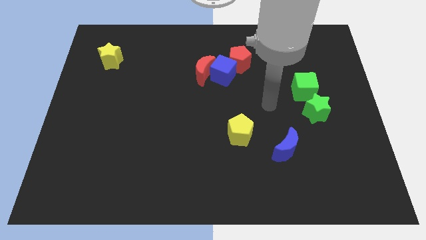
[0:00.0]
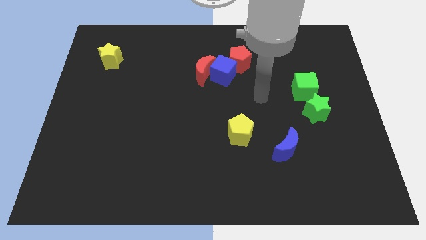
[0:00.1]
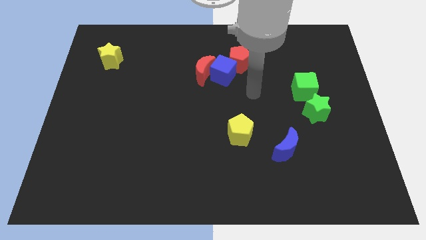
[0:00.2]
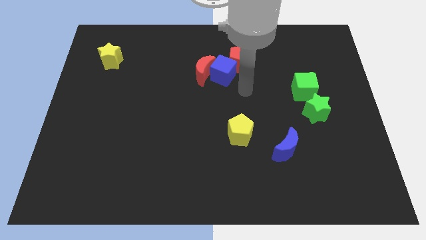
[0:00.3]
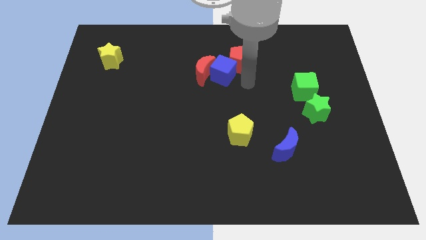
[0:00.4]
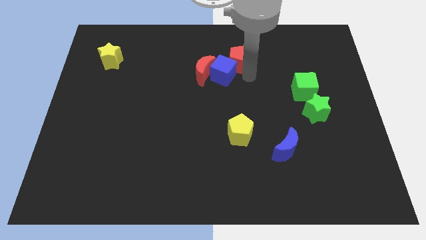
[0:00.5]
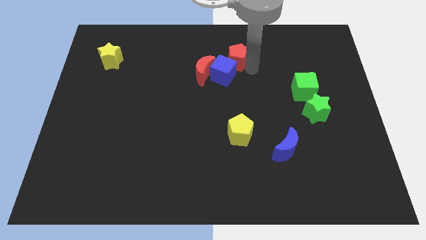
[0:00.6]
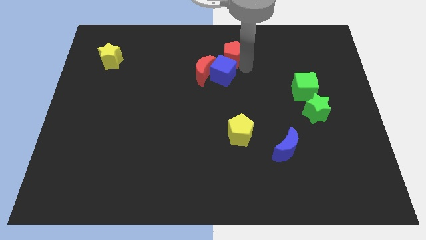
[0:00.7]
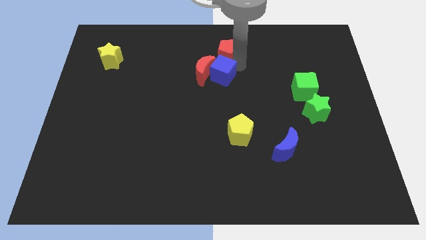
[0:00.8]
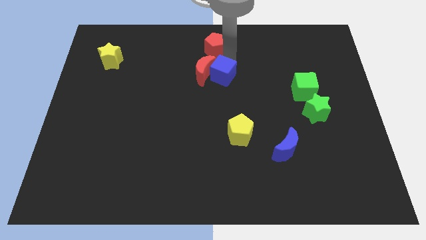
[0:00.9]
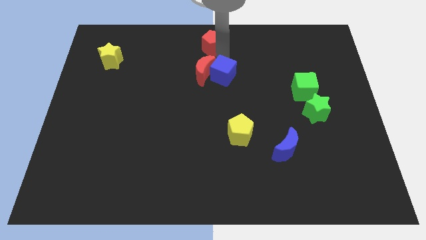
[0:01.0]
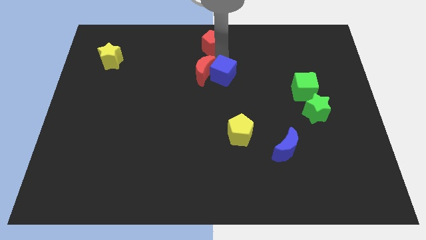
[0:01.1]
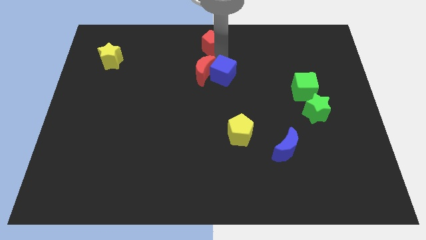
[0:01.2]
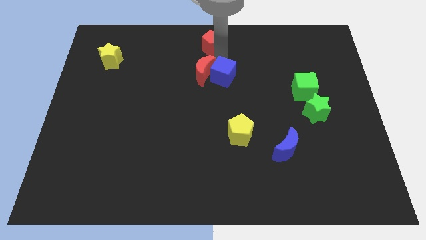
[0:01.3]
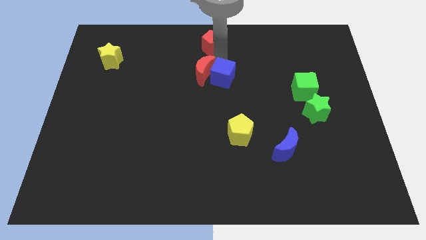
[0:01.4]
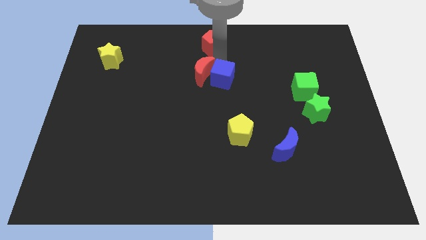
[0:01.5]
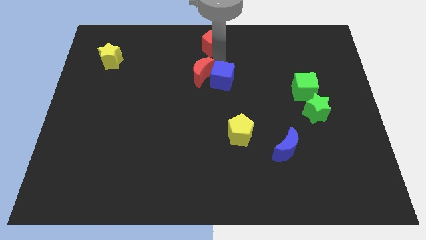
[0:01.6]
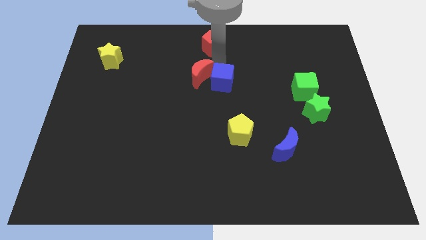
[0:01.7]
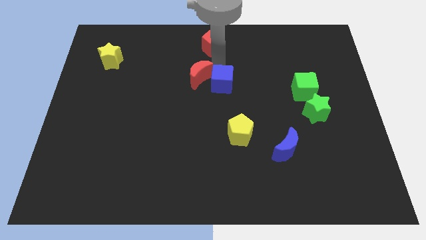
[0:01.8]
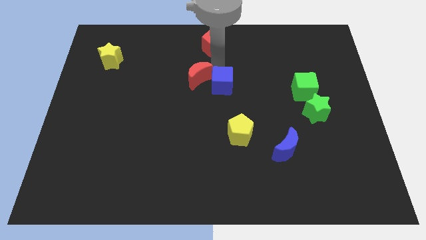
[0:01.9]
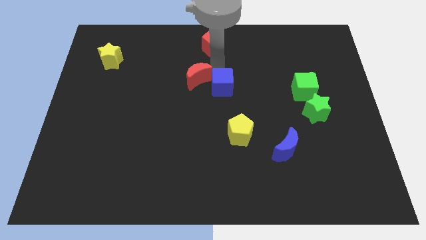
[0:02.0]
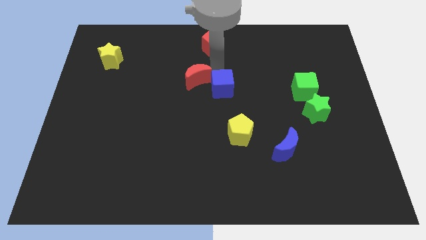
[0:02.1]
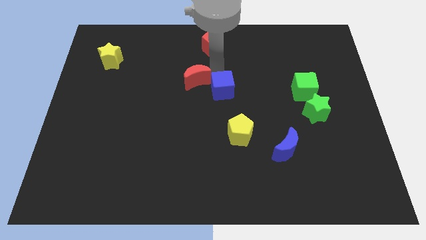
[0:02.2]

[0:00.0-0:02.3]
move the blue cube away from the red moon and red pentagon

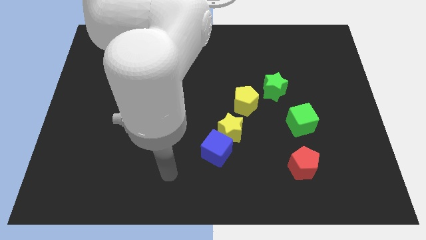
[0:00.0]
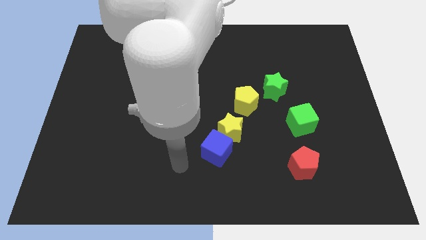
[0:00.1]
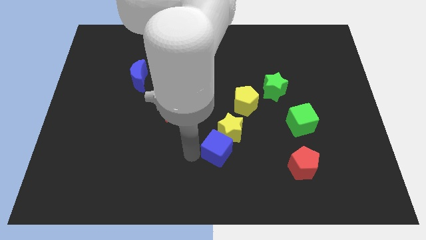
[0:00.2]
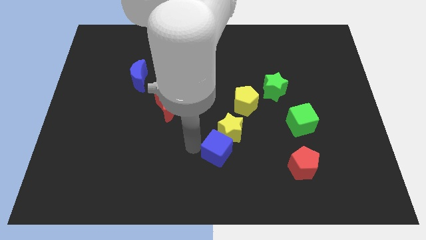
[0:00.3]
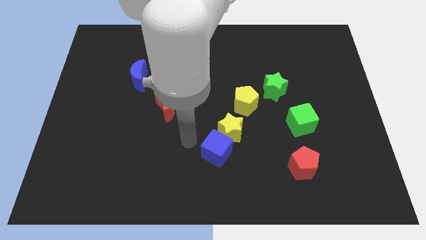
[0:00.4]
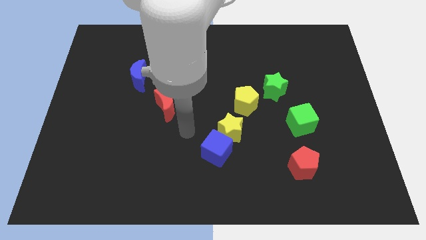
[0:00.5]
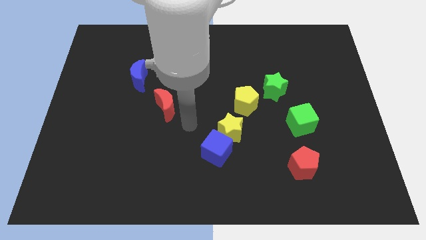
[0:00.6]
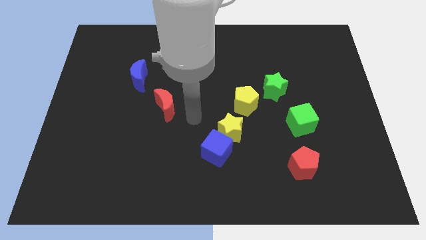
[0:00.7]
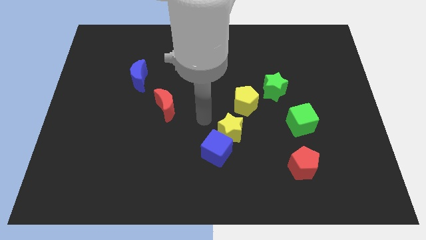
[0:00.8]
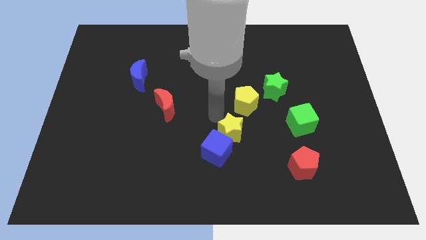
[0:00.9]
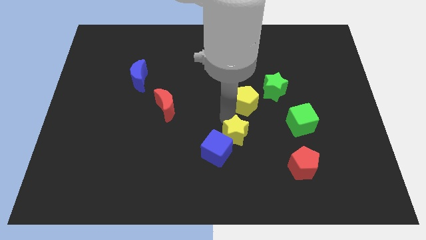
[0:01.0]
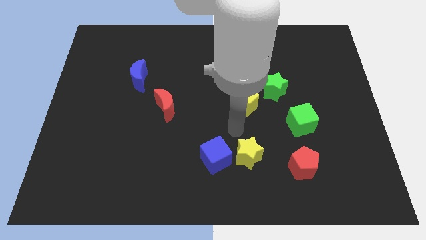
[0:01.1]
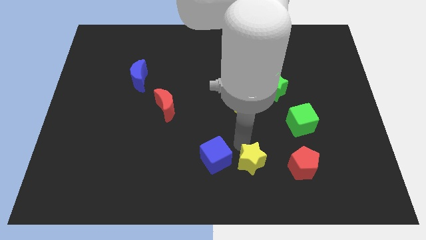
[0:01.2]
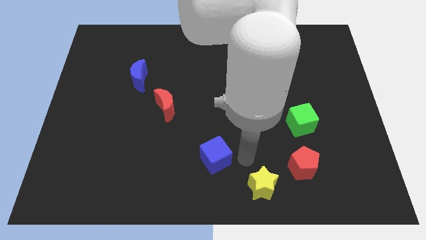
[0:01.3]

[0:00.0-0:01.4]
move the blue cube away from the yellow star

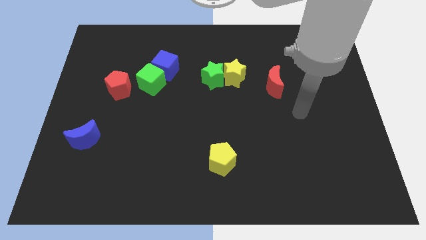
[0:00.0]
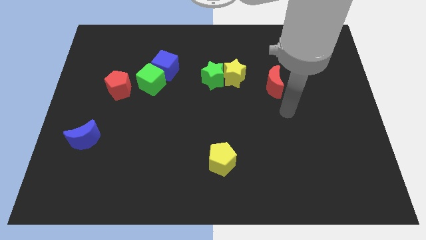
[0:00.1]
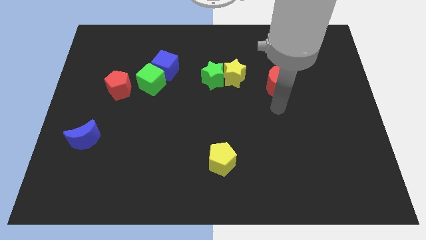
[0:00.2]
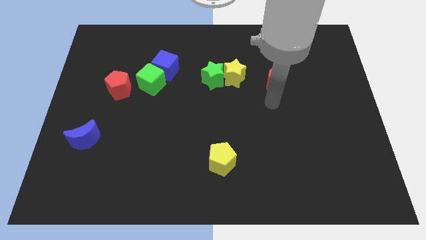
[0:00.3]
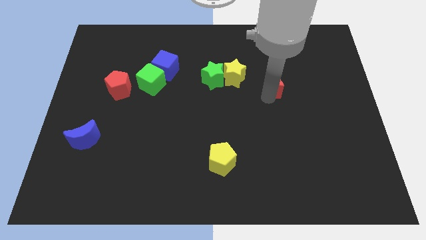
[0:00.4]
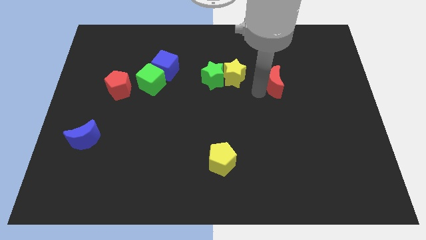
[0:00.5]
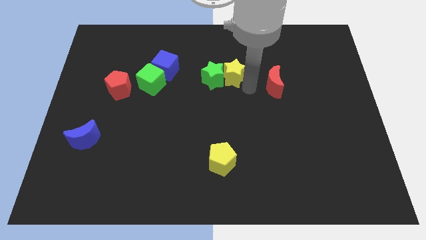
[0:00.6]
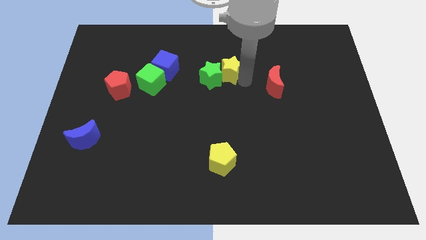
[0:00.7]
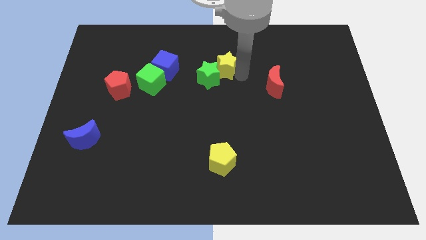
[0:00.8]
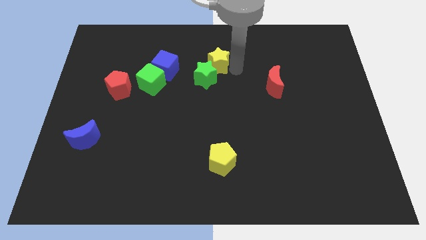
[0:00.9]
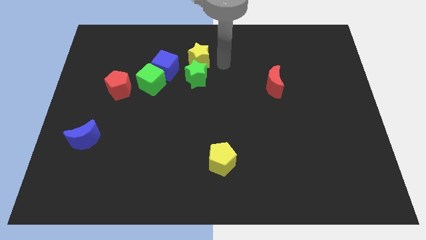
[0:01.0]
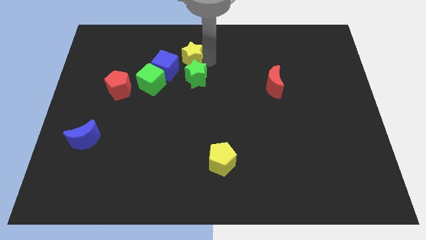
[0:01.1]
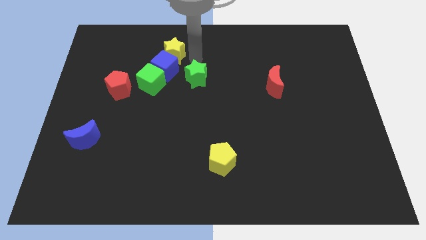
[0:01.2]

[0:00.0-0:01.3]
separate the green star from the yellow star

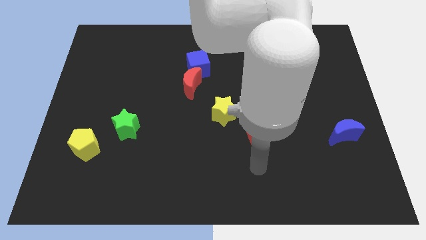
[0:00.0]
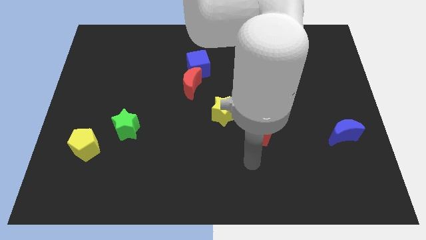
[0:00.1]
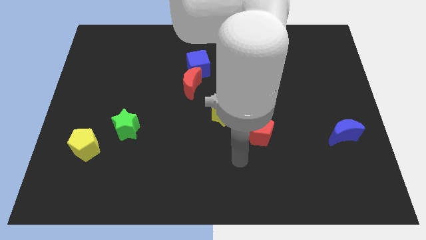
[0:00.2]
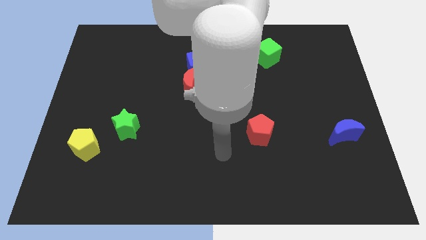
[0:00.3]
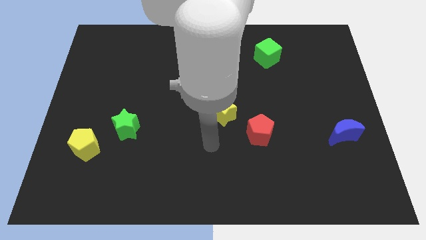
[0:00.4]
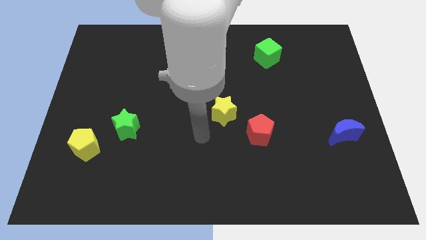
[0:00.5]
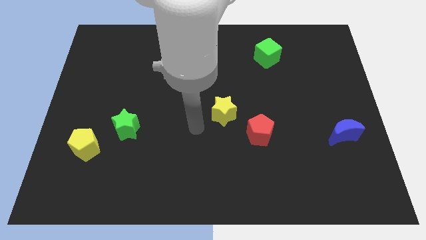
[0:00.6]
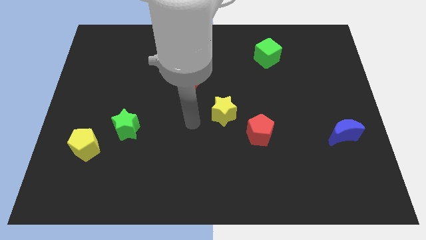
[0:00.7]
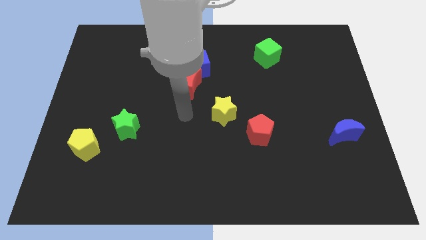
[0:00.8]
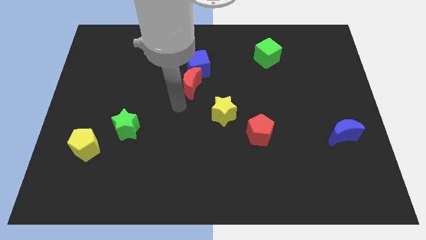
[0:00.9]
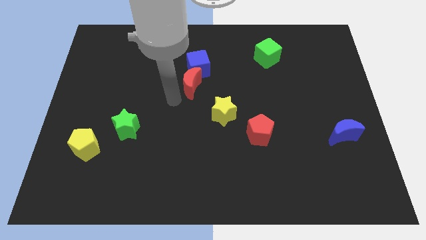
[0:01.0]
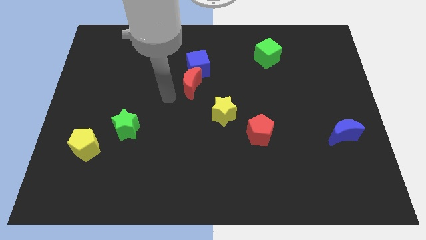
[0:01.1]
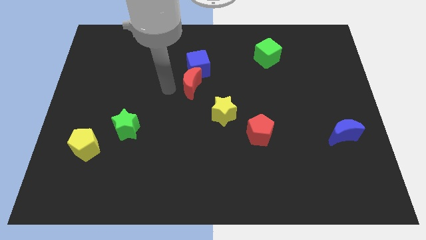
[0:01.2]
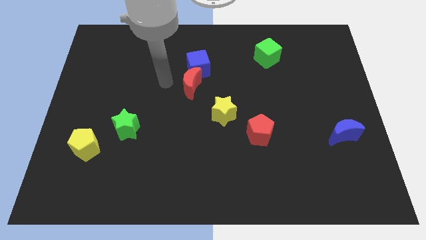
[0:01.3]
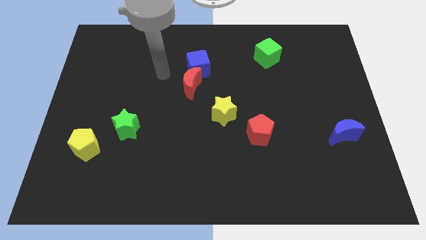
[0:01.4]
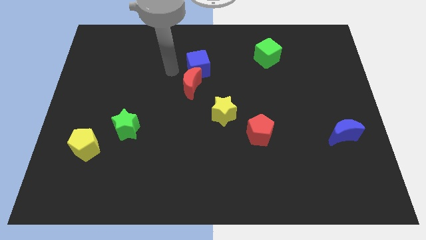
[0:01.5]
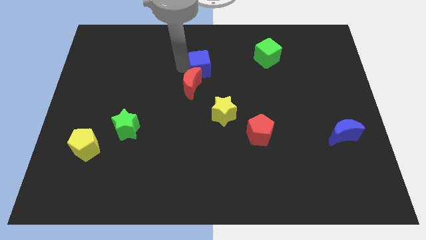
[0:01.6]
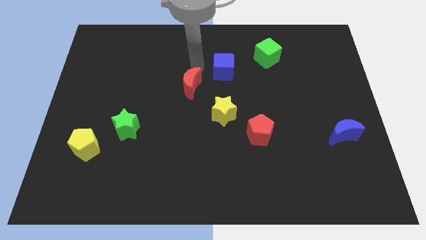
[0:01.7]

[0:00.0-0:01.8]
pull the red moon apart from the blue cube

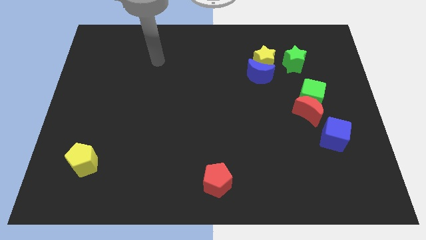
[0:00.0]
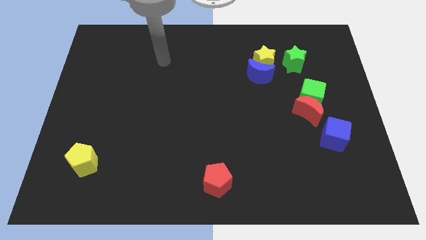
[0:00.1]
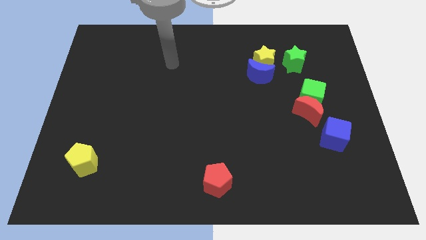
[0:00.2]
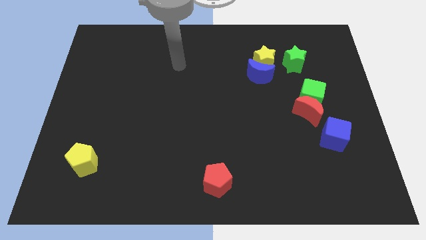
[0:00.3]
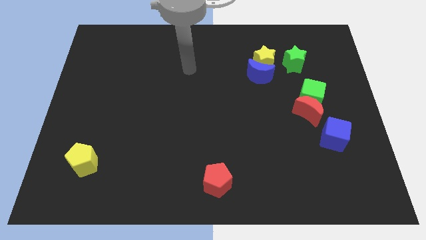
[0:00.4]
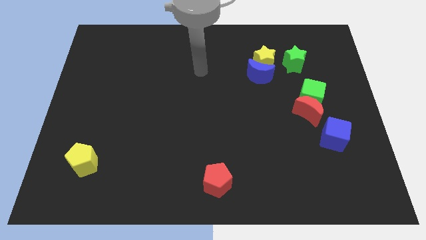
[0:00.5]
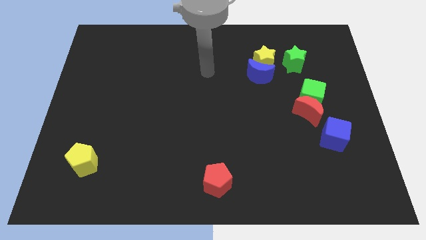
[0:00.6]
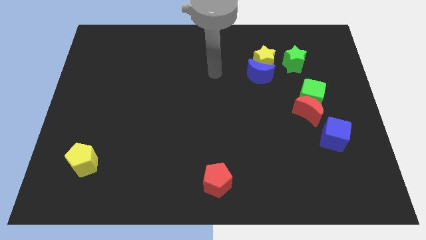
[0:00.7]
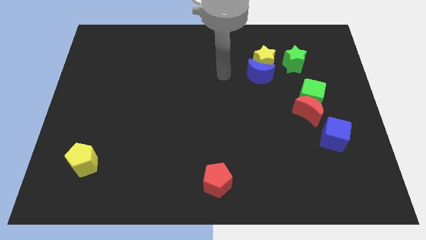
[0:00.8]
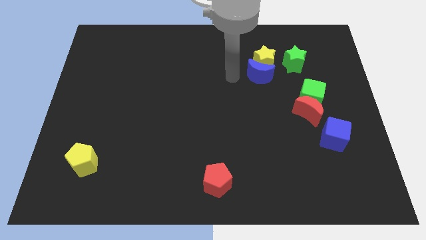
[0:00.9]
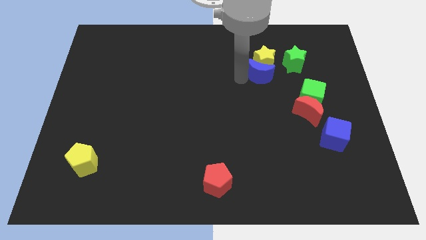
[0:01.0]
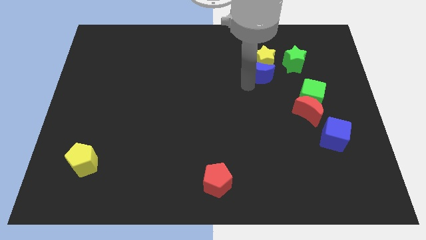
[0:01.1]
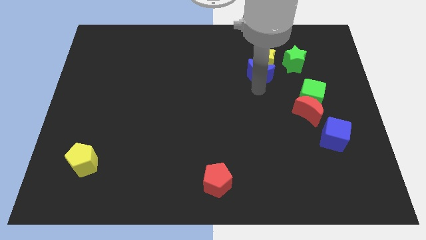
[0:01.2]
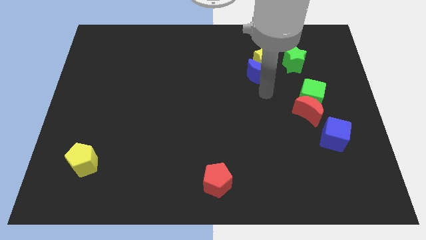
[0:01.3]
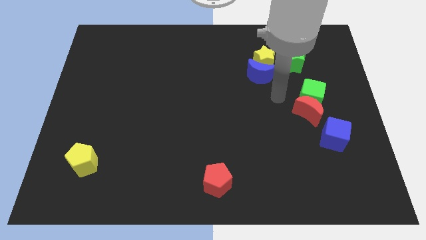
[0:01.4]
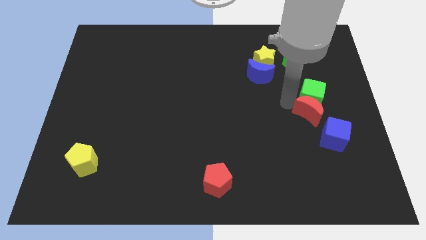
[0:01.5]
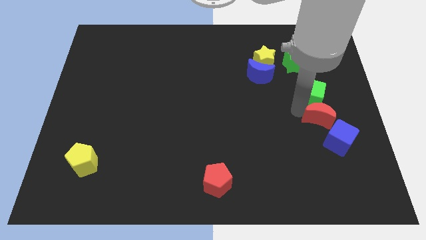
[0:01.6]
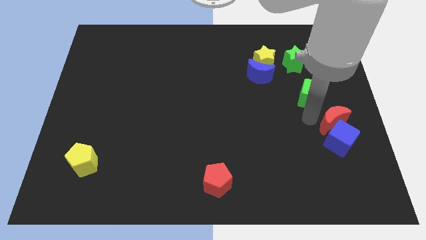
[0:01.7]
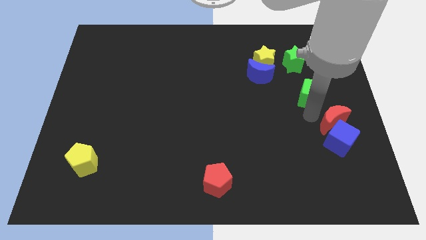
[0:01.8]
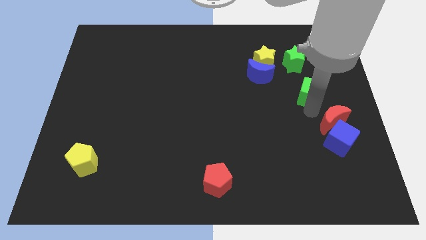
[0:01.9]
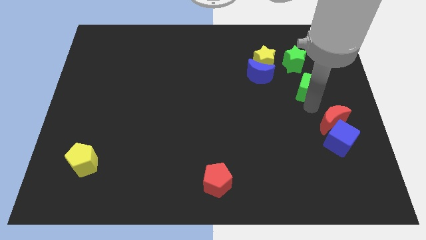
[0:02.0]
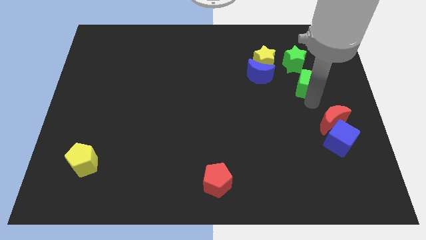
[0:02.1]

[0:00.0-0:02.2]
separate the green cube from the red moon

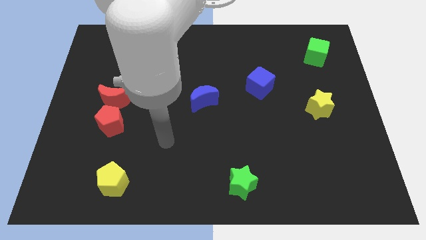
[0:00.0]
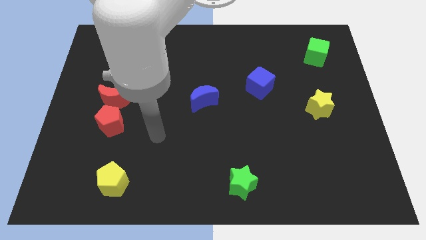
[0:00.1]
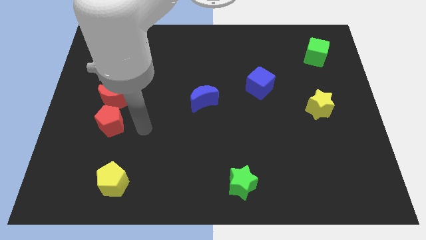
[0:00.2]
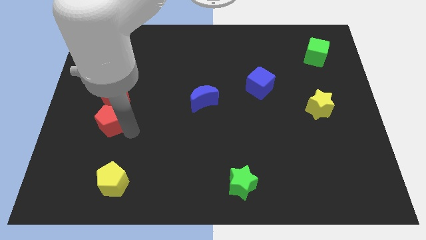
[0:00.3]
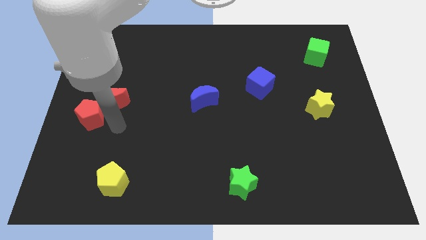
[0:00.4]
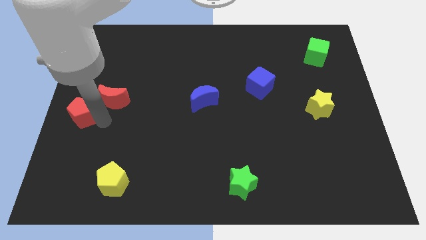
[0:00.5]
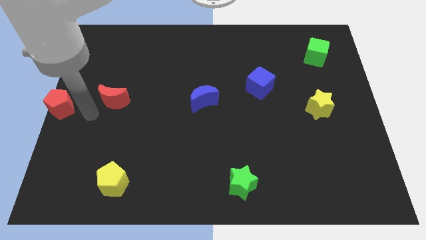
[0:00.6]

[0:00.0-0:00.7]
separate the red moon from the red pentagon
